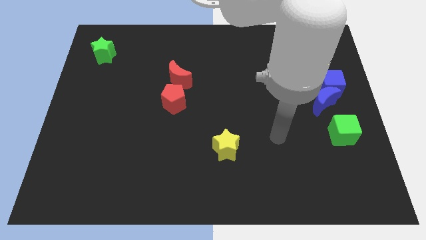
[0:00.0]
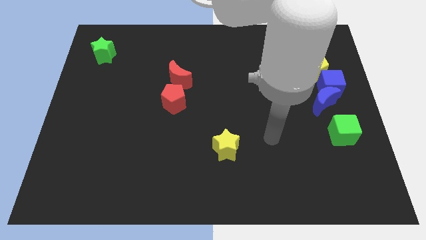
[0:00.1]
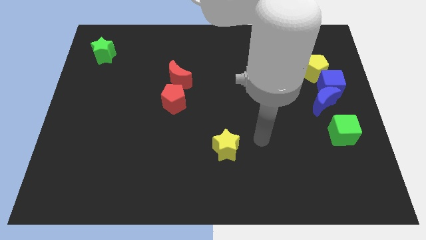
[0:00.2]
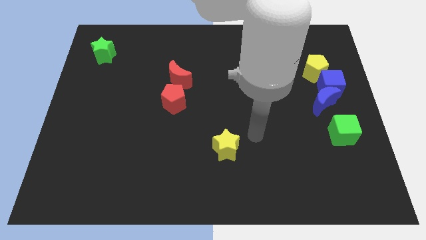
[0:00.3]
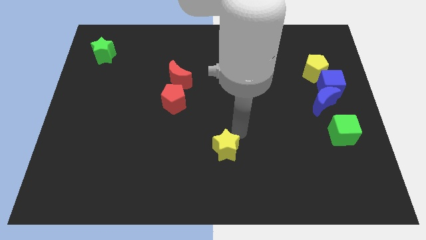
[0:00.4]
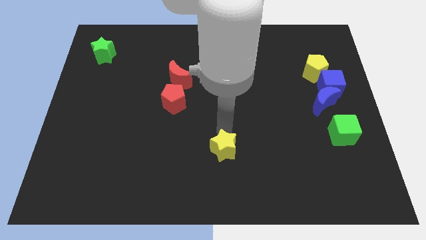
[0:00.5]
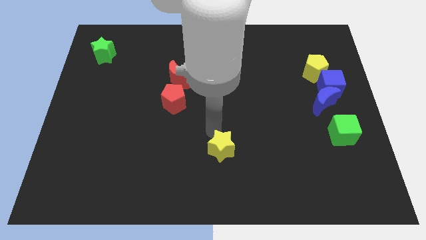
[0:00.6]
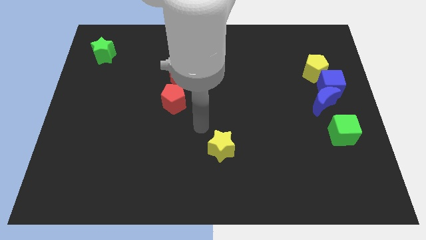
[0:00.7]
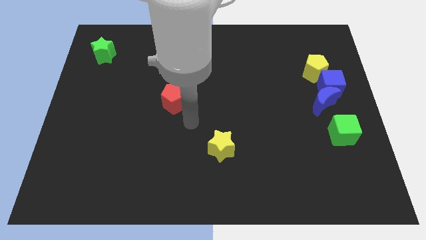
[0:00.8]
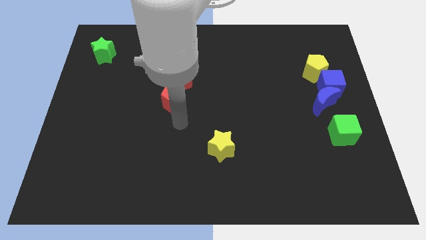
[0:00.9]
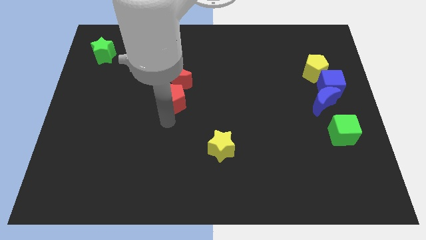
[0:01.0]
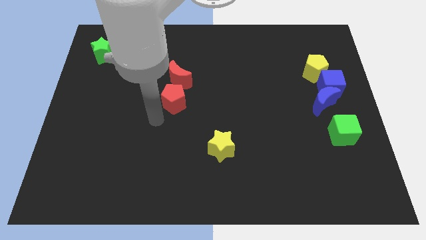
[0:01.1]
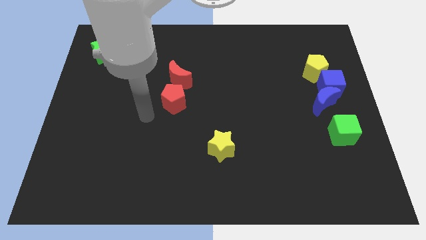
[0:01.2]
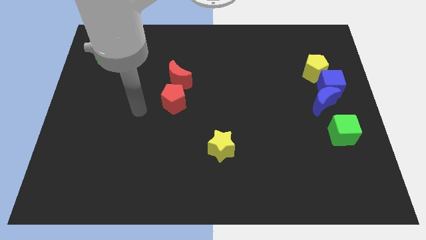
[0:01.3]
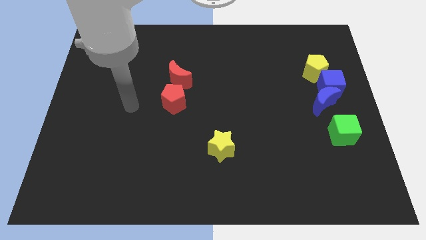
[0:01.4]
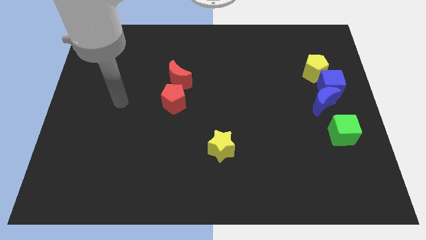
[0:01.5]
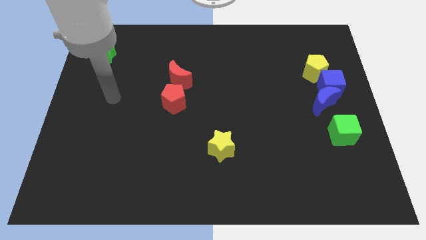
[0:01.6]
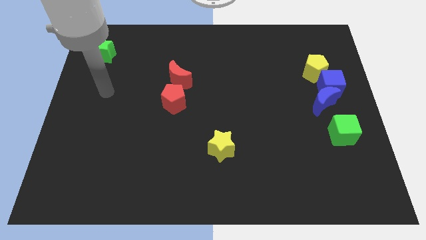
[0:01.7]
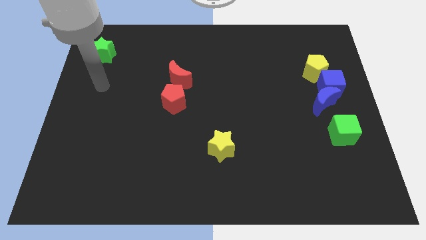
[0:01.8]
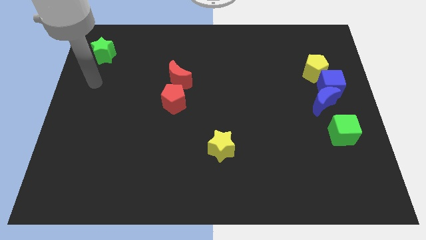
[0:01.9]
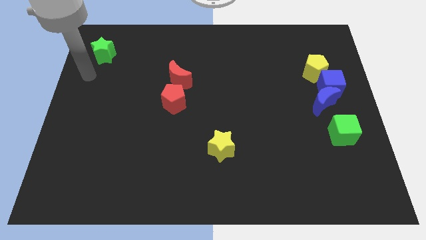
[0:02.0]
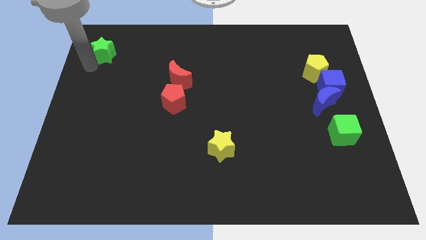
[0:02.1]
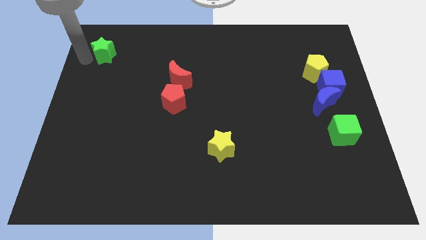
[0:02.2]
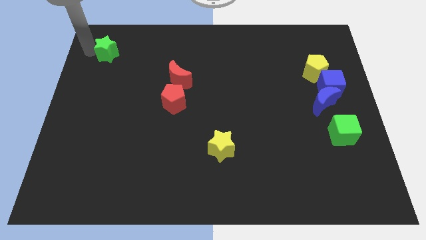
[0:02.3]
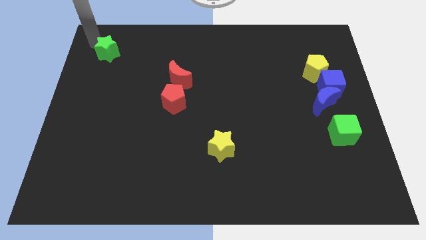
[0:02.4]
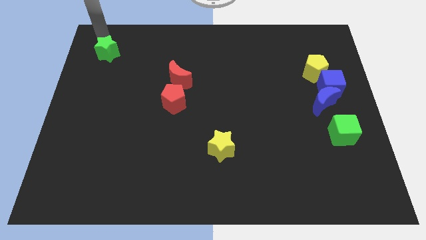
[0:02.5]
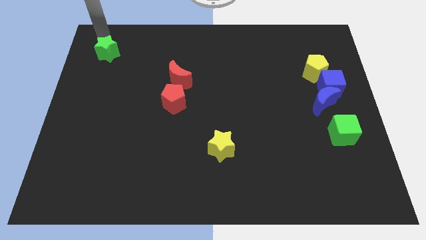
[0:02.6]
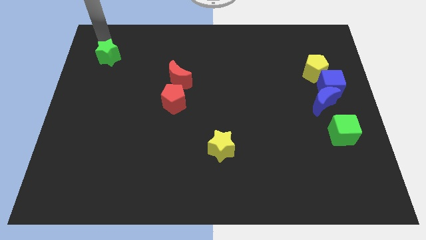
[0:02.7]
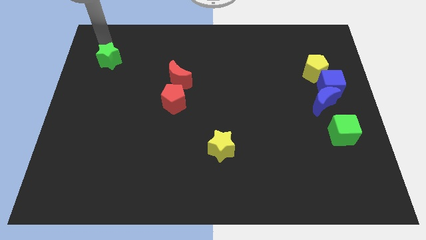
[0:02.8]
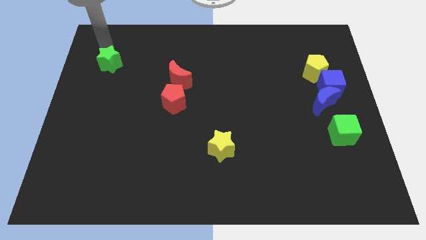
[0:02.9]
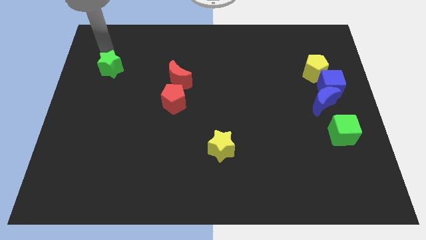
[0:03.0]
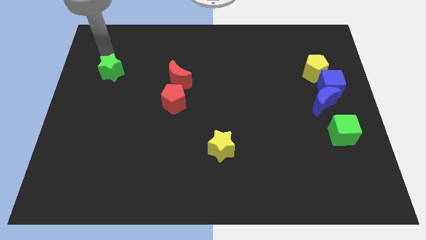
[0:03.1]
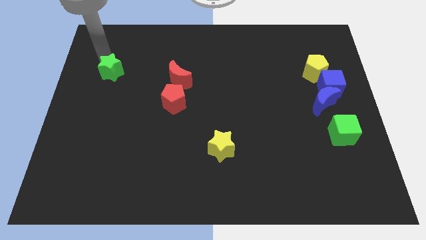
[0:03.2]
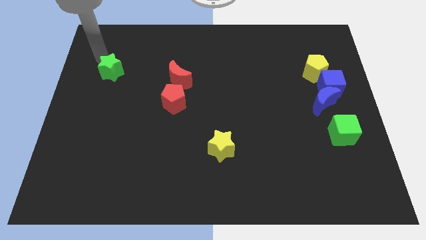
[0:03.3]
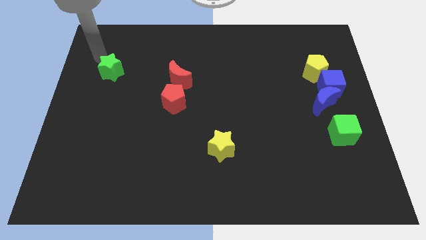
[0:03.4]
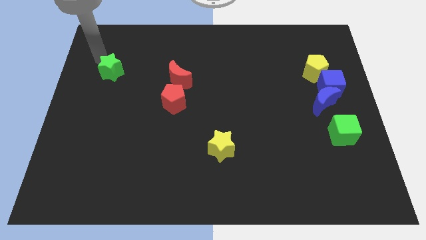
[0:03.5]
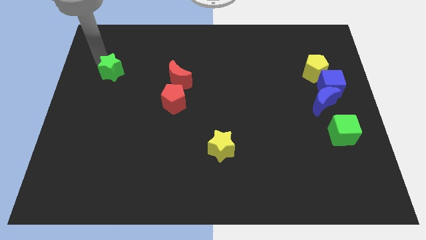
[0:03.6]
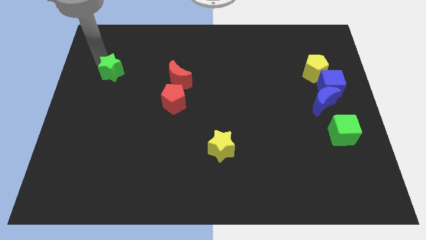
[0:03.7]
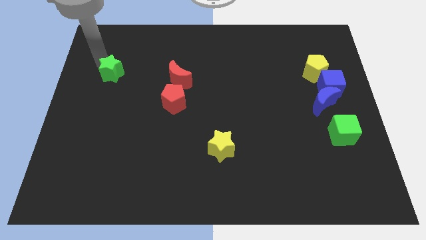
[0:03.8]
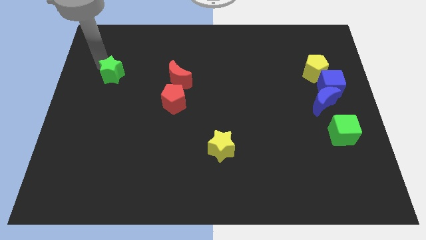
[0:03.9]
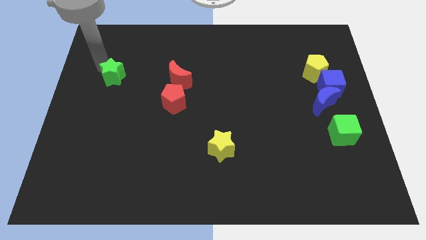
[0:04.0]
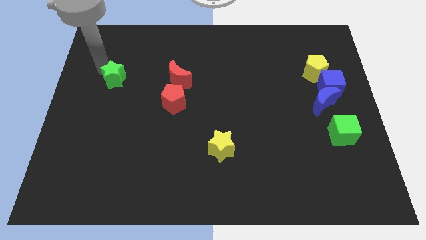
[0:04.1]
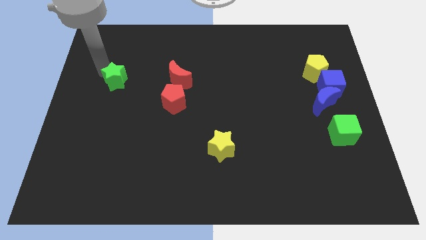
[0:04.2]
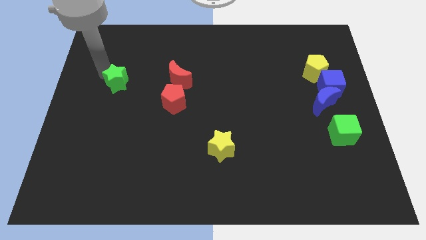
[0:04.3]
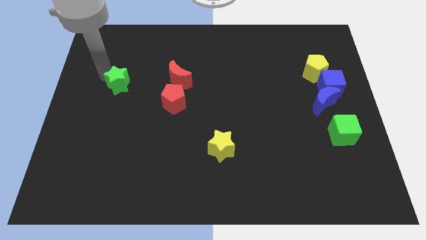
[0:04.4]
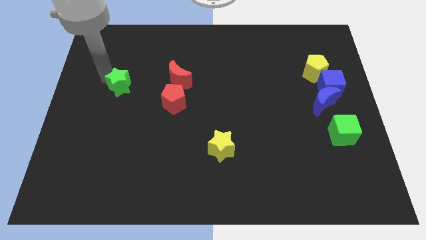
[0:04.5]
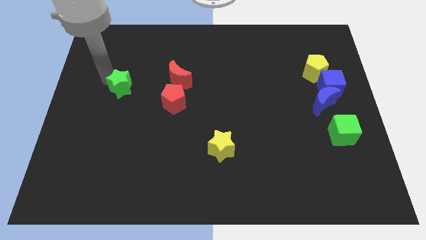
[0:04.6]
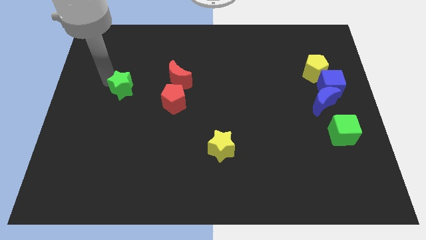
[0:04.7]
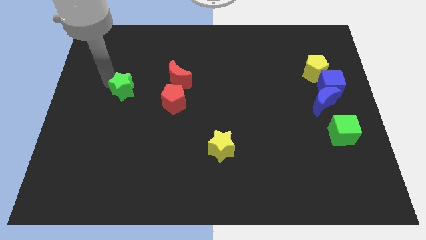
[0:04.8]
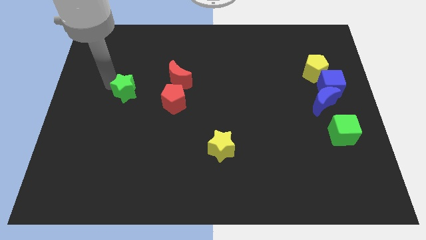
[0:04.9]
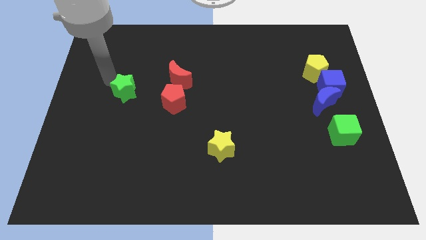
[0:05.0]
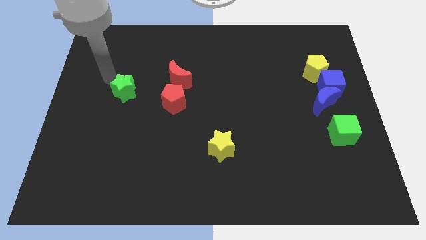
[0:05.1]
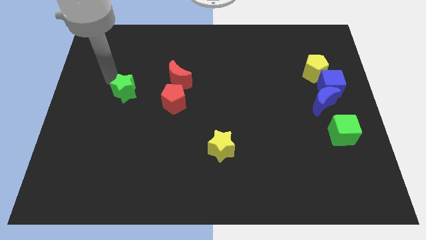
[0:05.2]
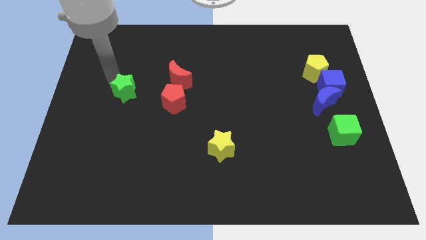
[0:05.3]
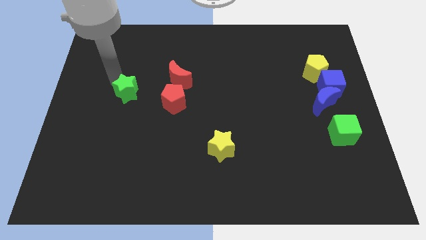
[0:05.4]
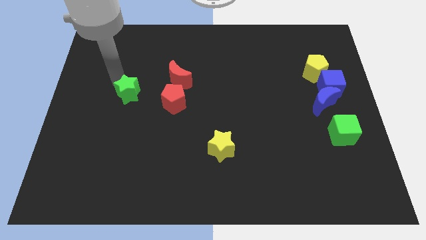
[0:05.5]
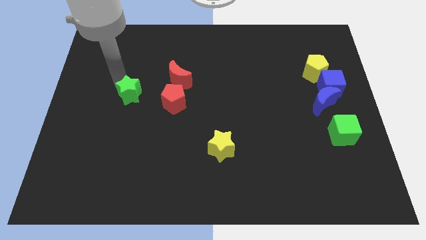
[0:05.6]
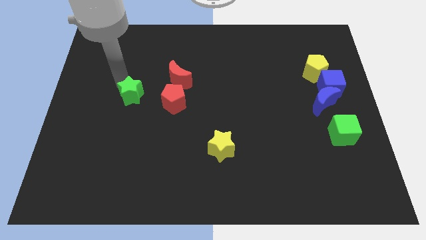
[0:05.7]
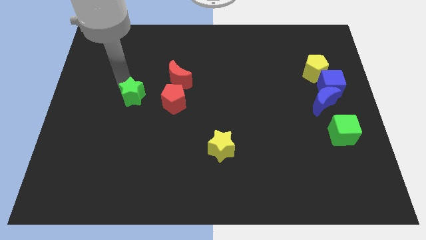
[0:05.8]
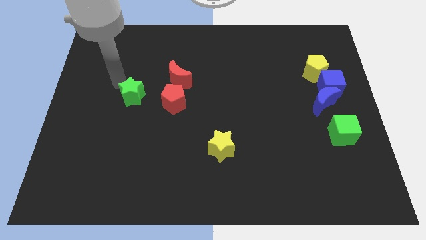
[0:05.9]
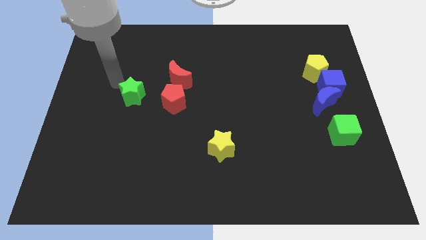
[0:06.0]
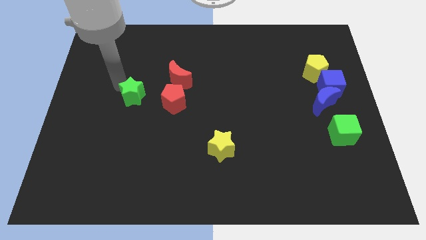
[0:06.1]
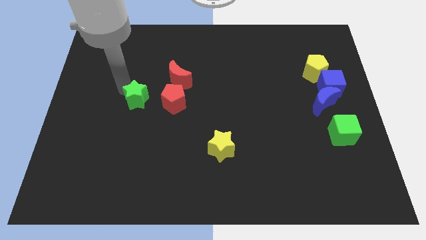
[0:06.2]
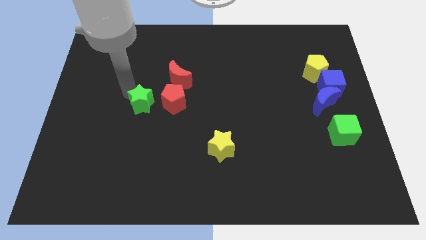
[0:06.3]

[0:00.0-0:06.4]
slide the green star downwards and to the right diagonally

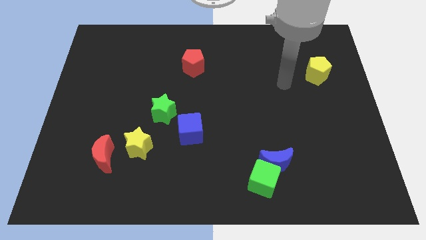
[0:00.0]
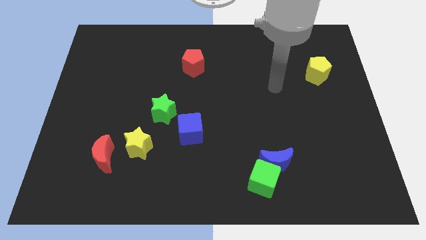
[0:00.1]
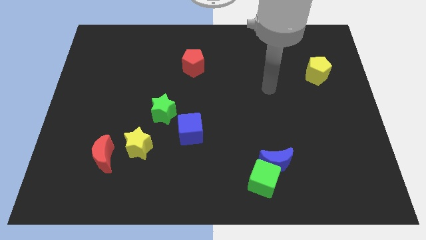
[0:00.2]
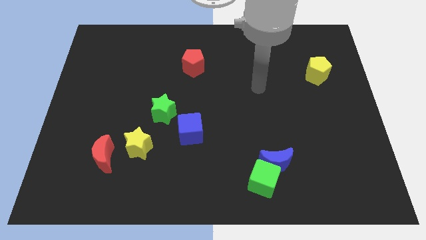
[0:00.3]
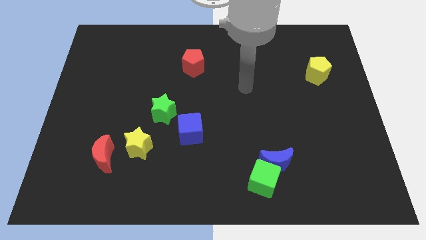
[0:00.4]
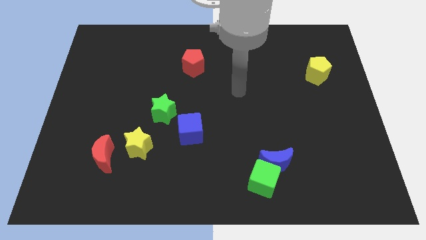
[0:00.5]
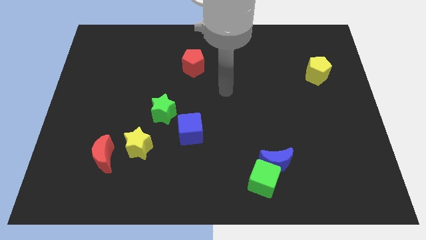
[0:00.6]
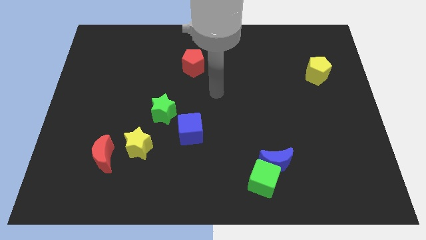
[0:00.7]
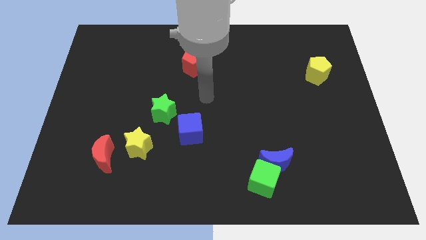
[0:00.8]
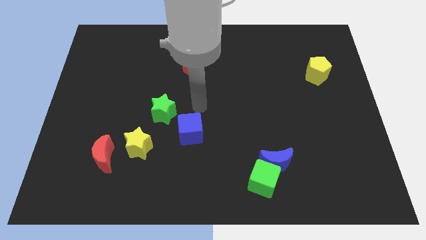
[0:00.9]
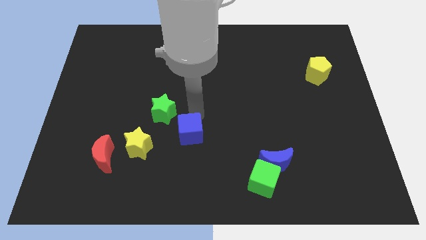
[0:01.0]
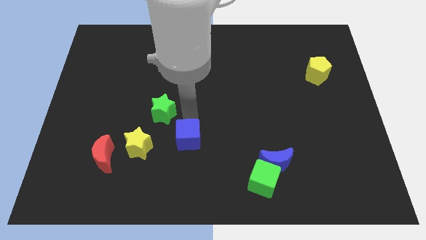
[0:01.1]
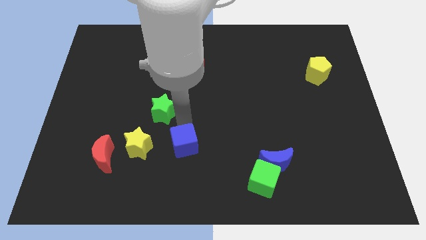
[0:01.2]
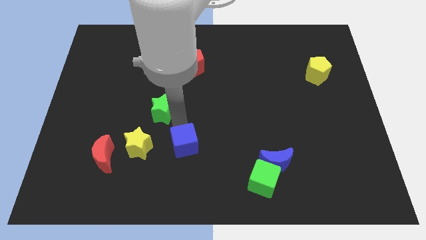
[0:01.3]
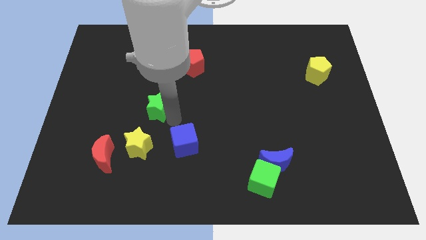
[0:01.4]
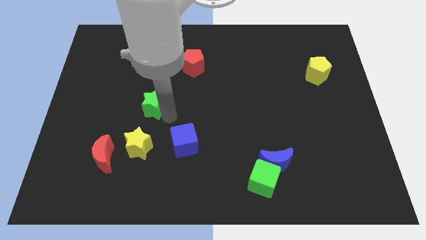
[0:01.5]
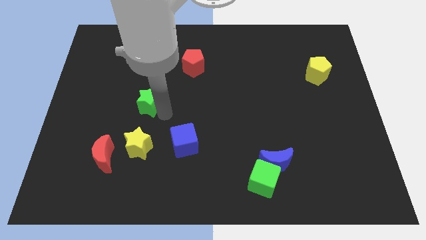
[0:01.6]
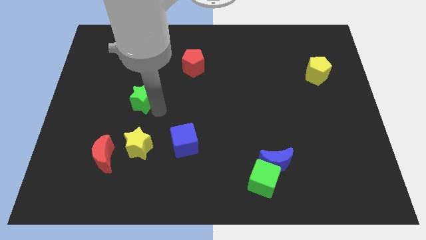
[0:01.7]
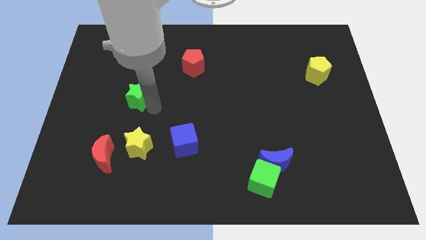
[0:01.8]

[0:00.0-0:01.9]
slightly slide the green star upwards and left diagonally
